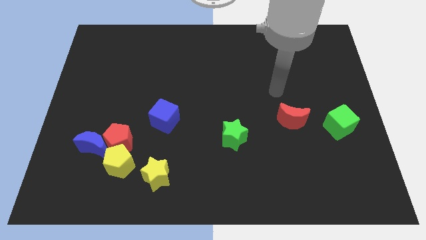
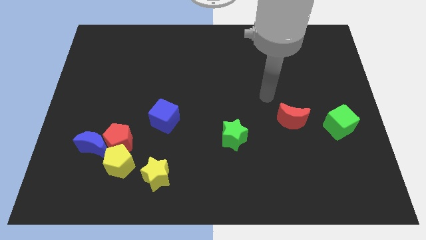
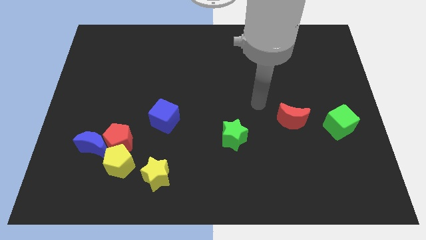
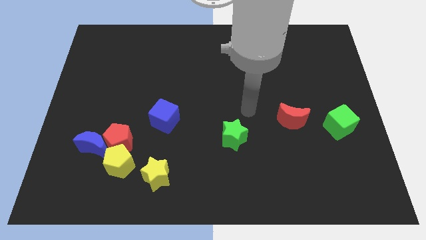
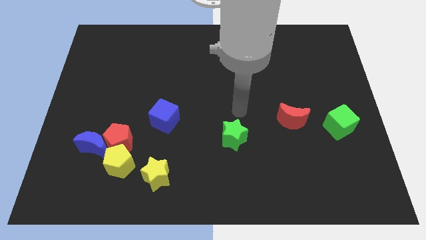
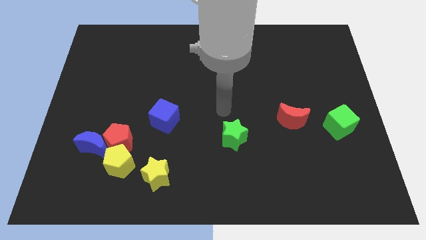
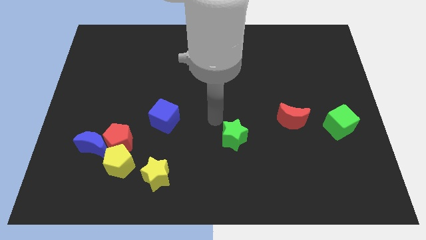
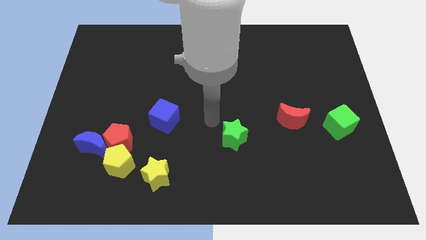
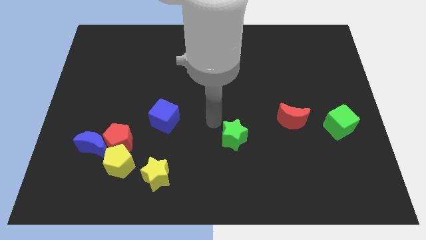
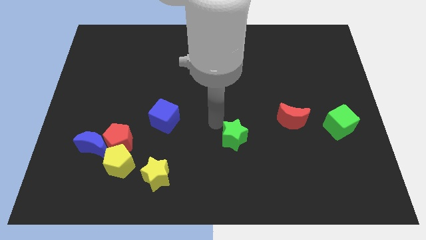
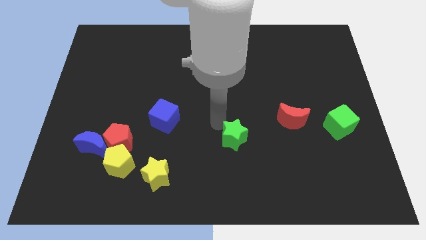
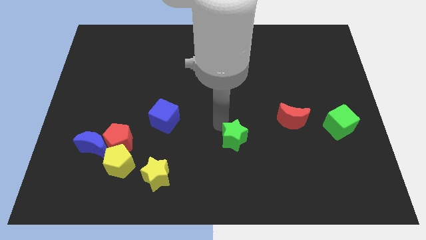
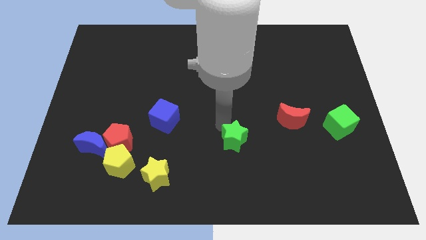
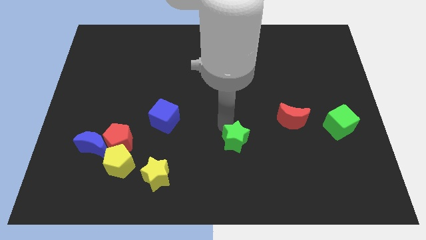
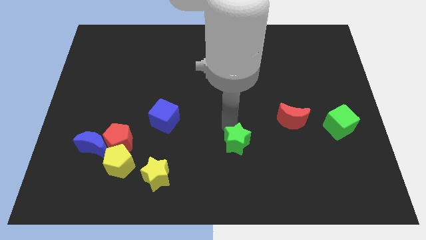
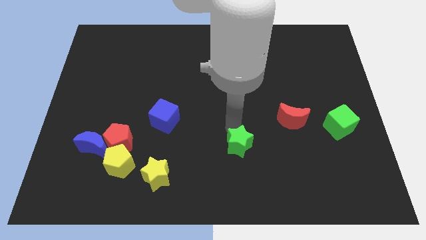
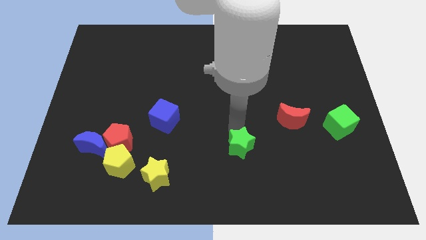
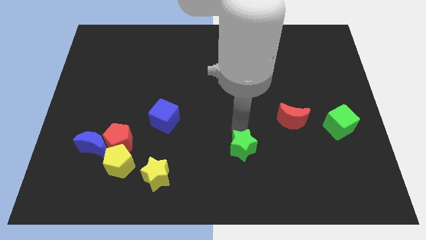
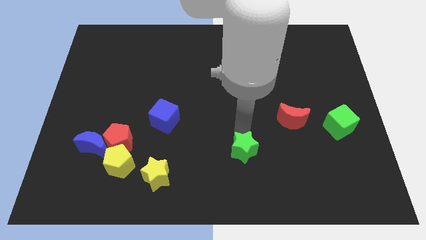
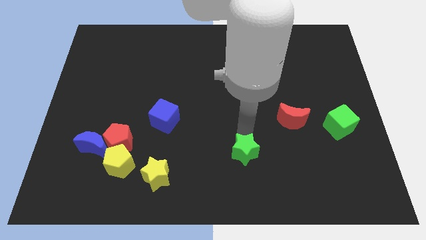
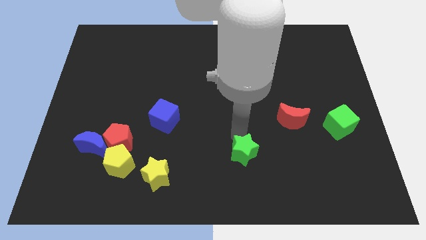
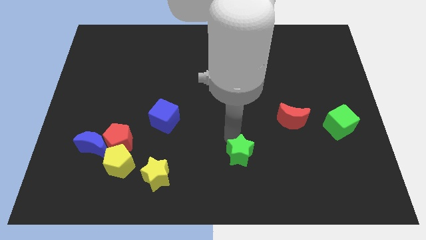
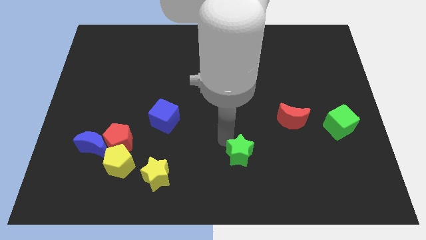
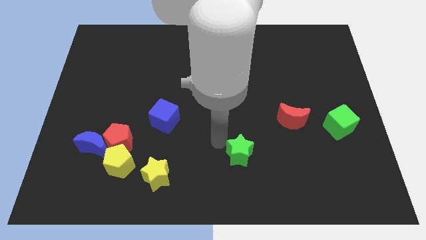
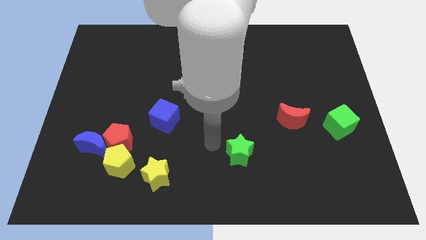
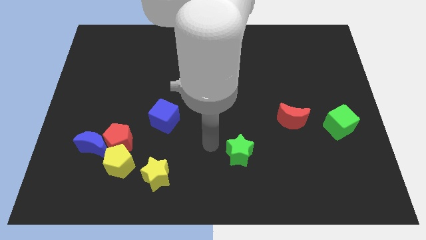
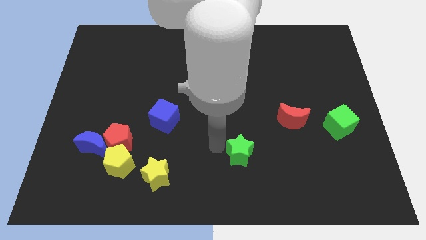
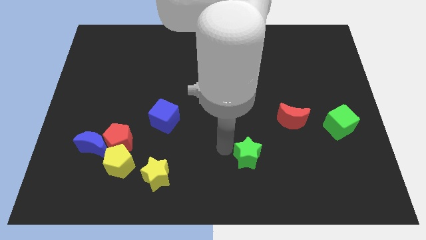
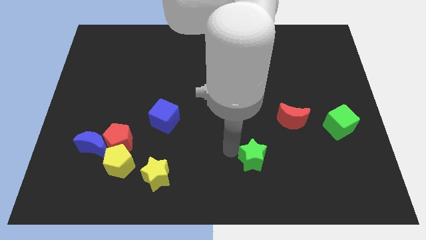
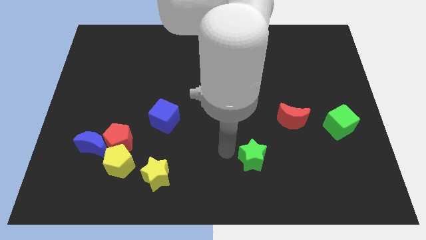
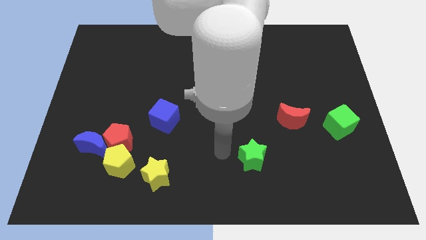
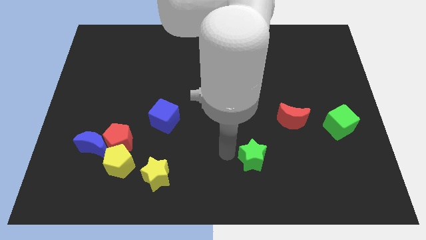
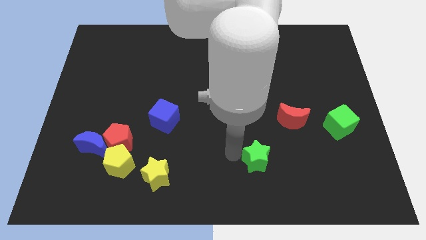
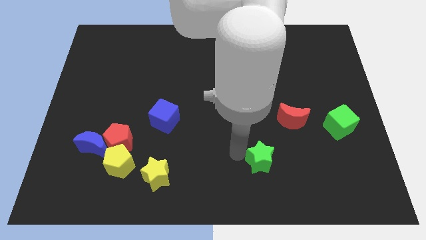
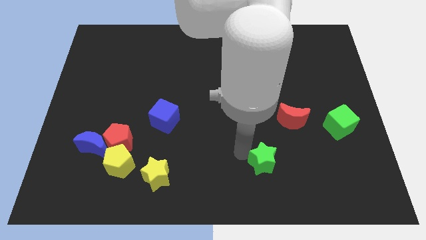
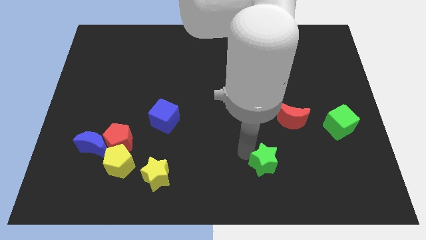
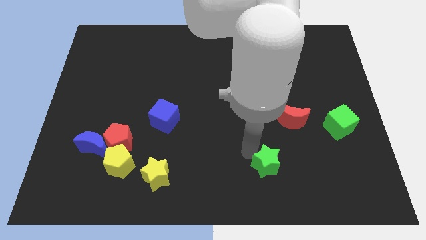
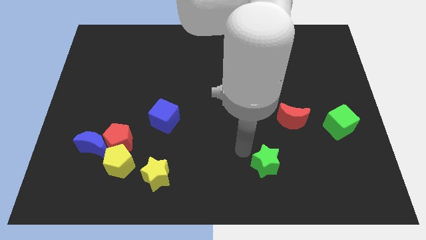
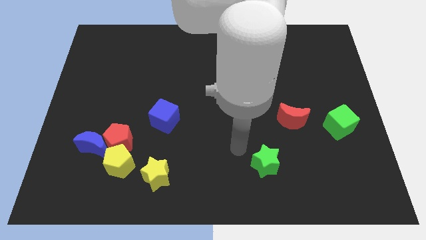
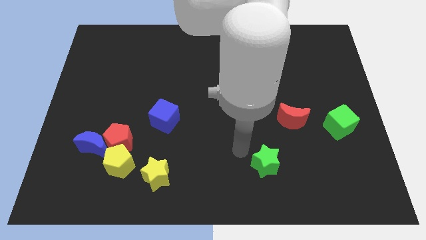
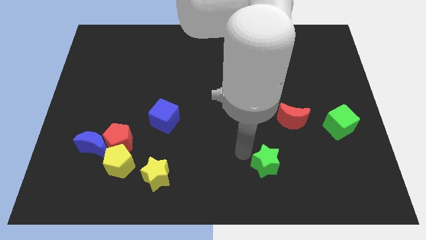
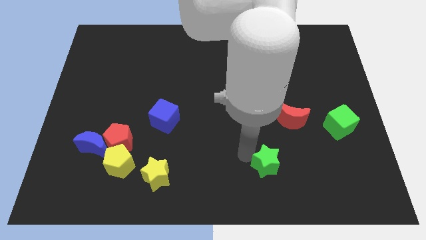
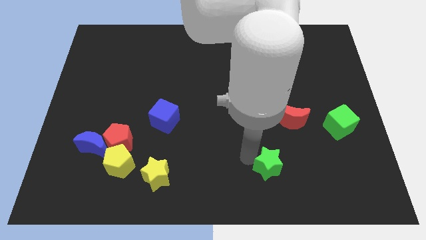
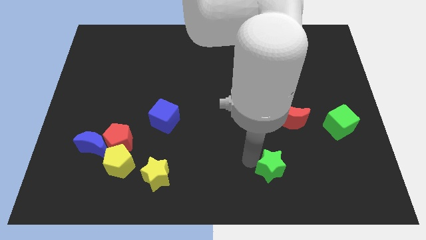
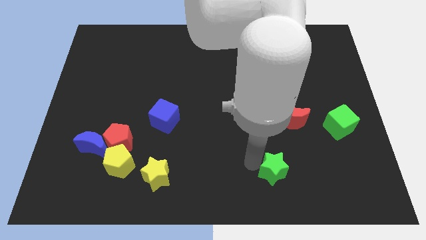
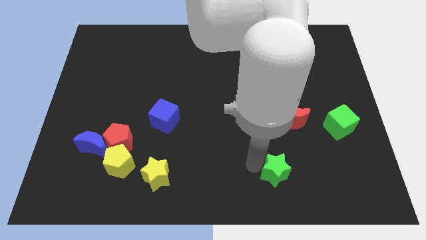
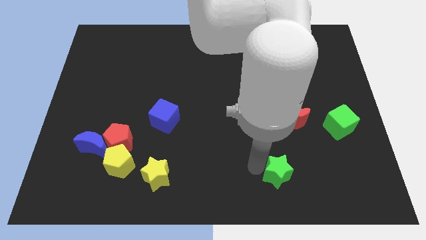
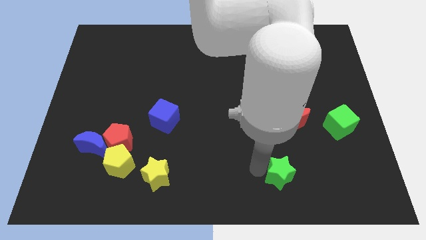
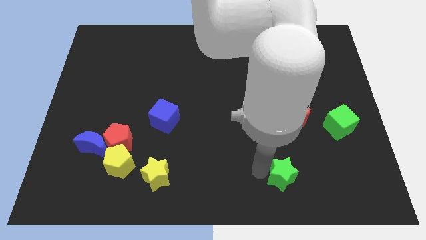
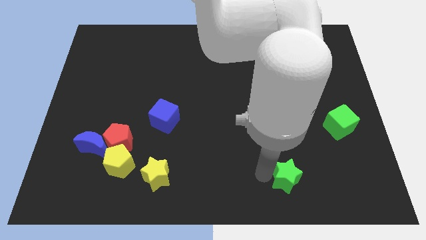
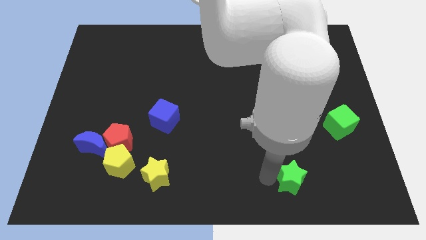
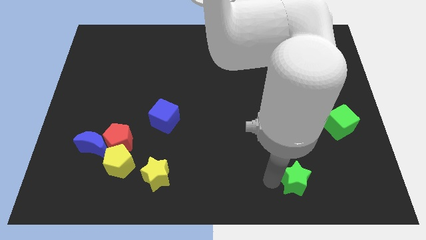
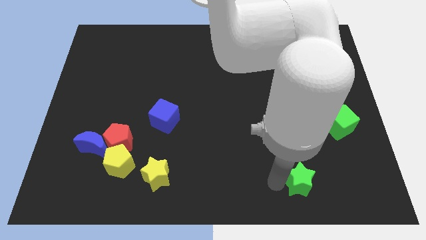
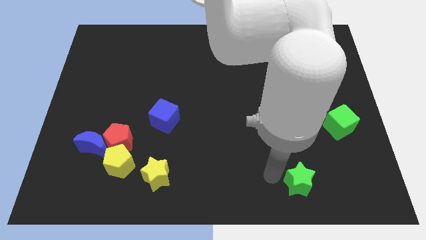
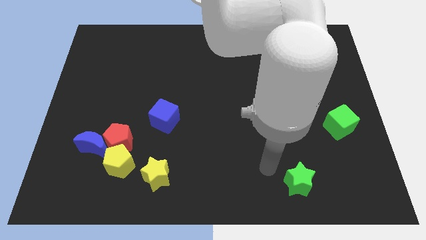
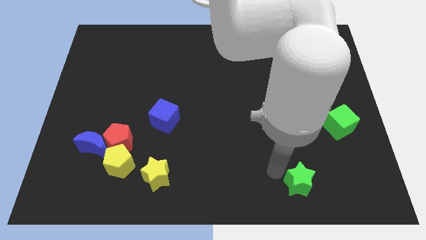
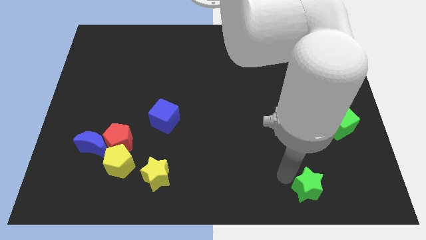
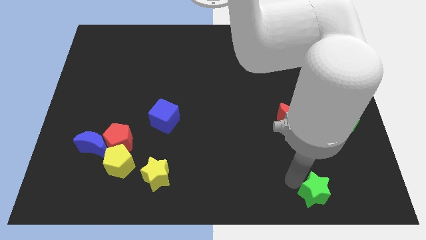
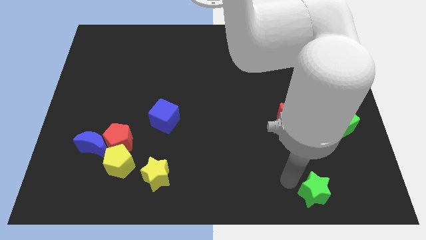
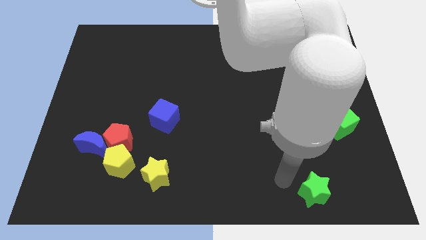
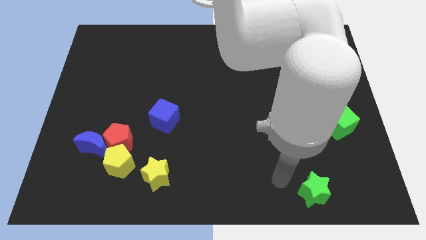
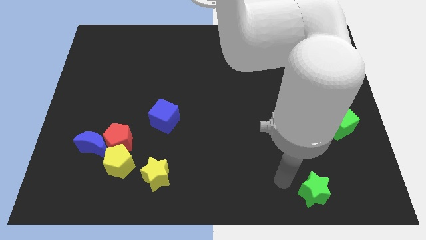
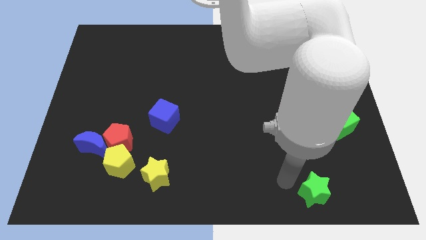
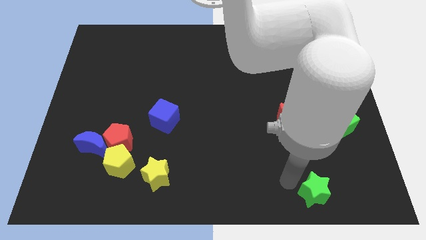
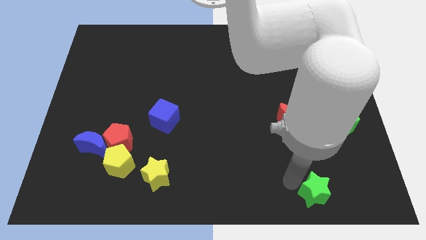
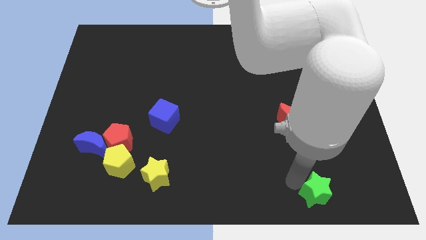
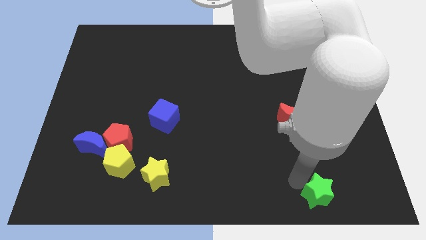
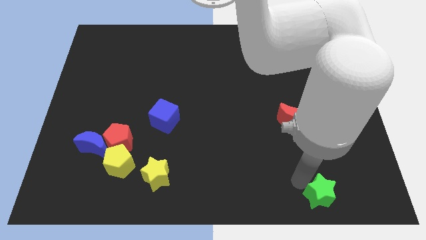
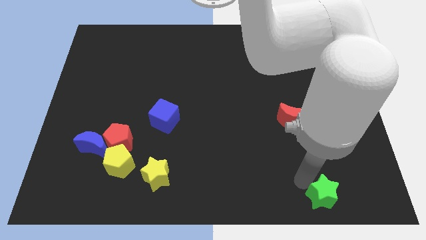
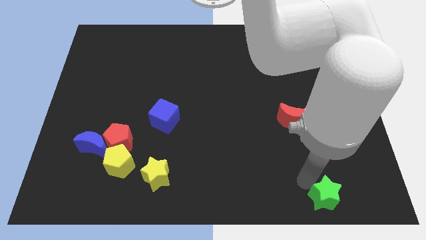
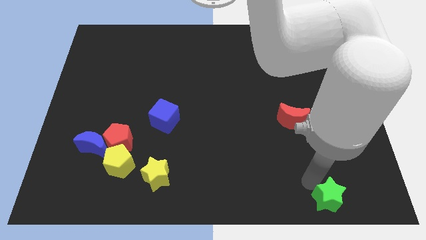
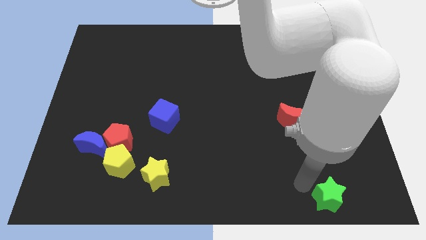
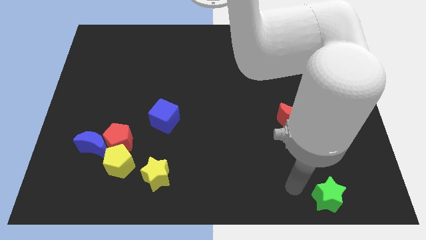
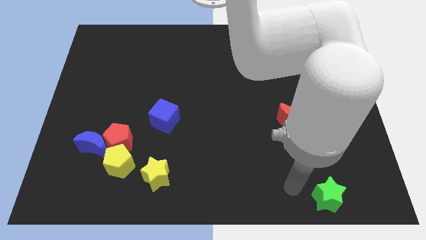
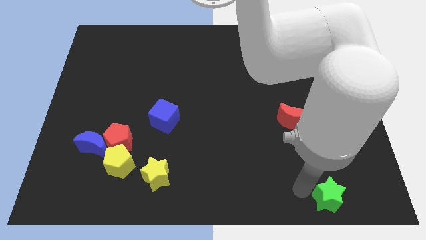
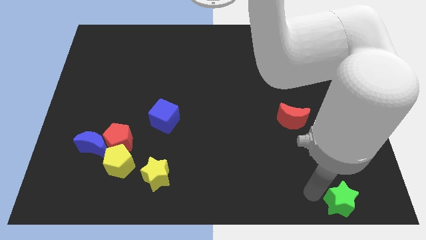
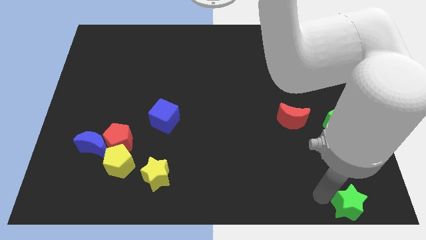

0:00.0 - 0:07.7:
move the green star to the bottom right
